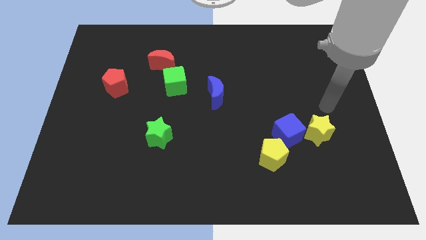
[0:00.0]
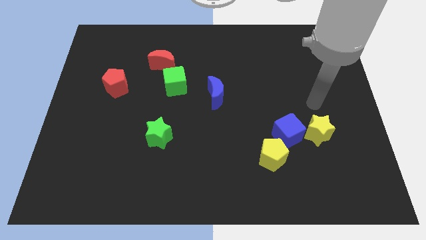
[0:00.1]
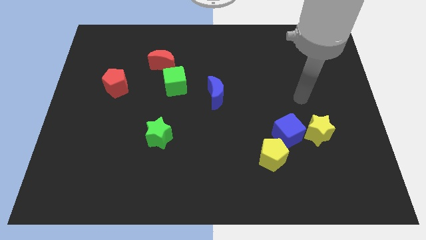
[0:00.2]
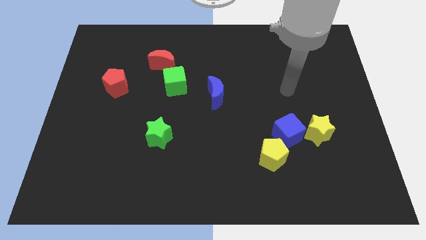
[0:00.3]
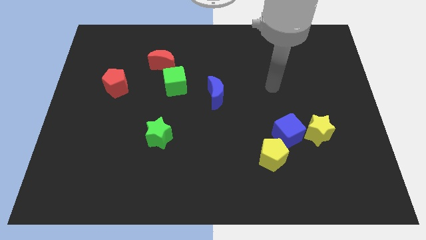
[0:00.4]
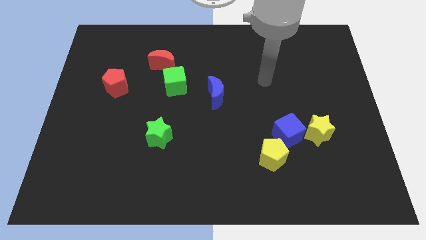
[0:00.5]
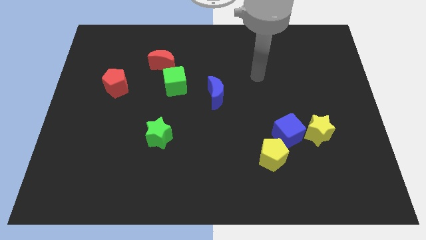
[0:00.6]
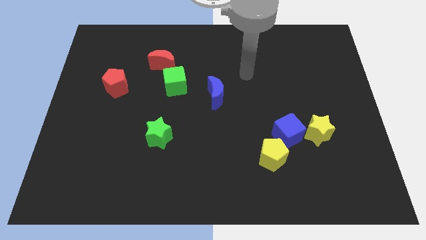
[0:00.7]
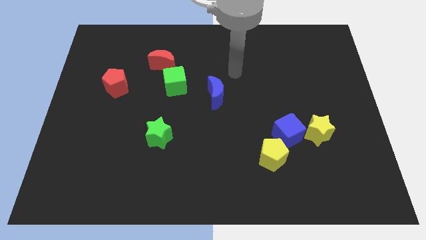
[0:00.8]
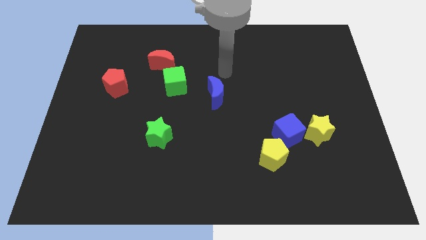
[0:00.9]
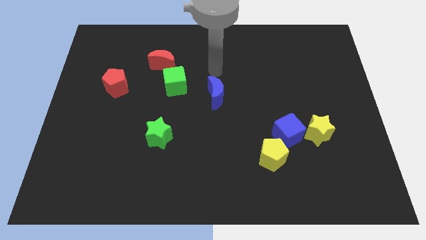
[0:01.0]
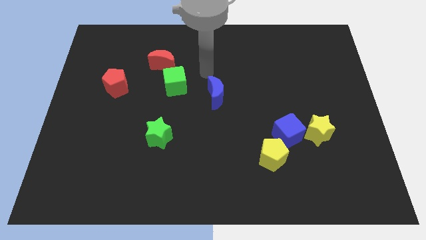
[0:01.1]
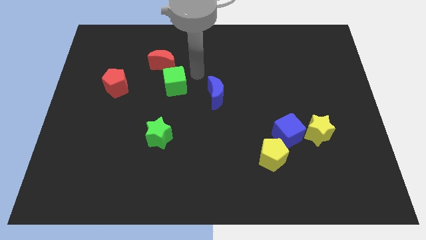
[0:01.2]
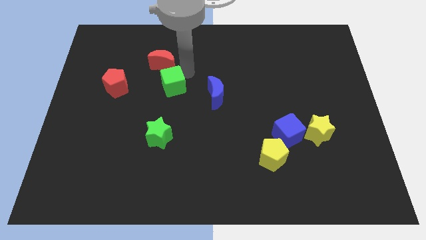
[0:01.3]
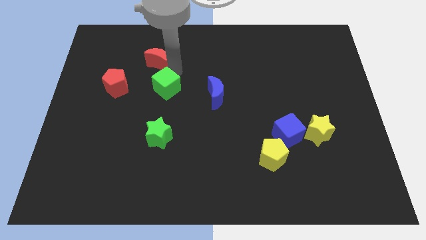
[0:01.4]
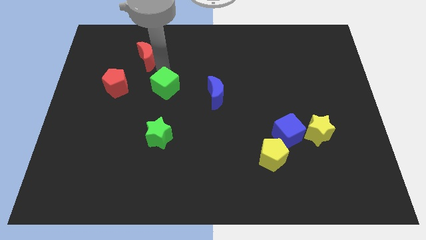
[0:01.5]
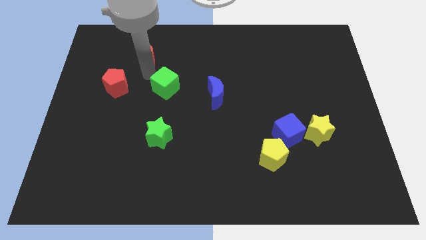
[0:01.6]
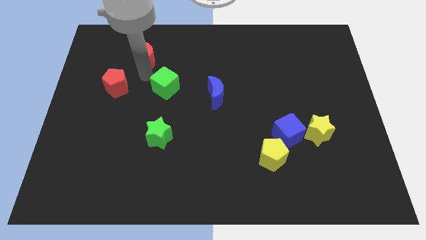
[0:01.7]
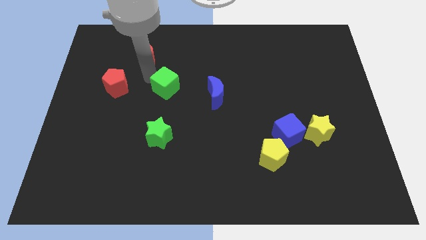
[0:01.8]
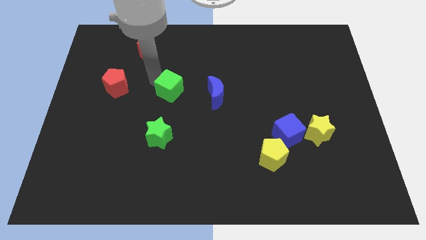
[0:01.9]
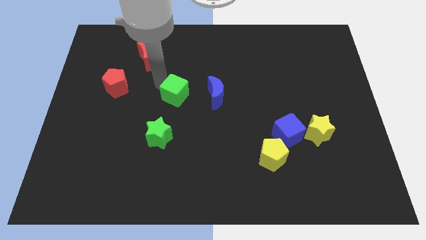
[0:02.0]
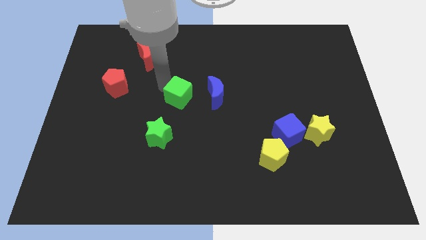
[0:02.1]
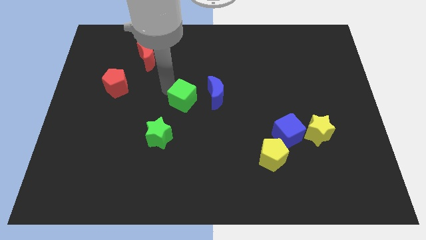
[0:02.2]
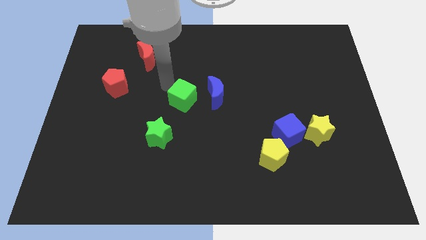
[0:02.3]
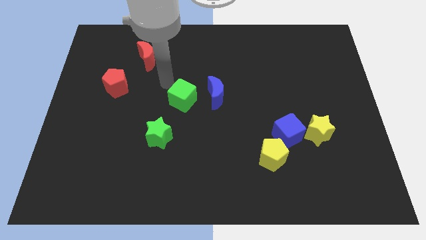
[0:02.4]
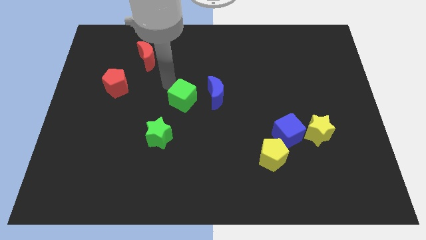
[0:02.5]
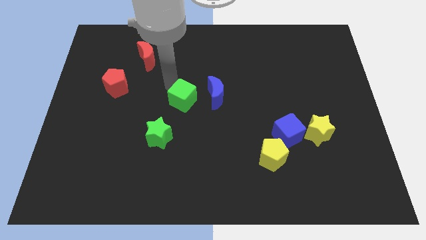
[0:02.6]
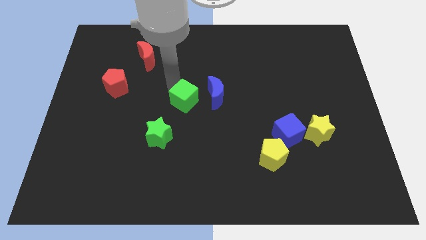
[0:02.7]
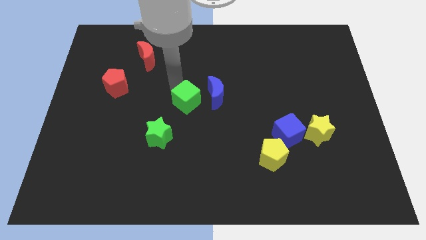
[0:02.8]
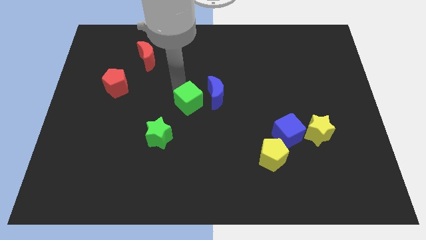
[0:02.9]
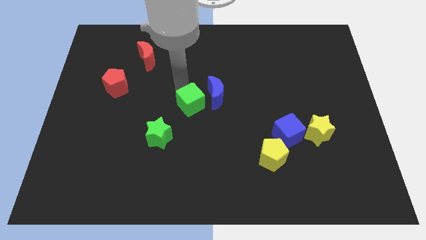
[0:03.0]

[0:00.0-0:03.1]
slightly slide the green cube downwards and to the right diagonally

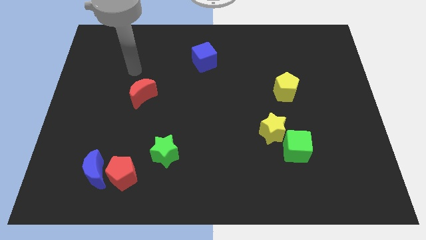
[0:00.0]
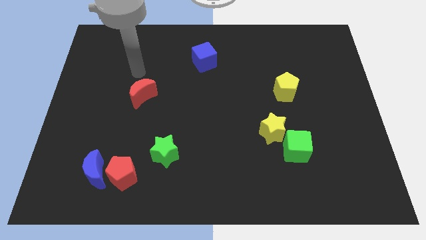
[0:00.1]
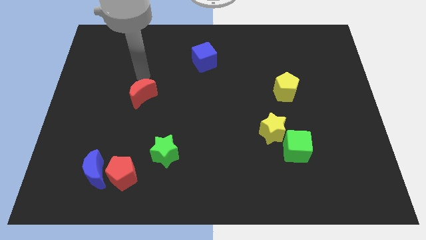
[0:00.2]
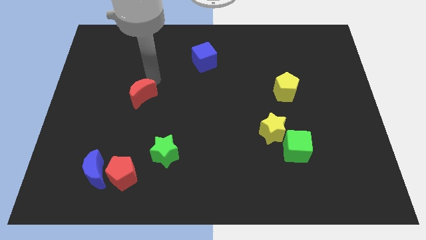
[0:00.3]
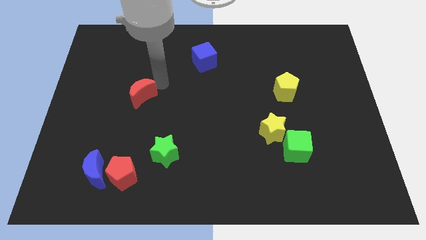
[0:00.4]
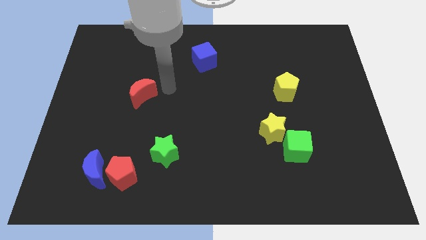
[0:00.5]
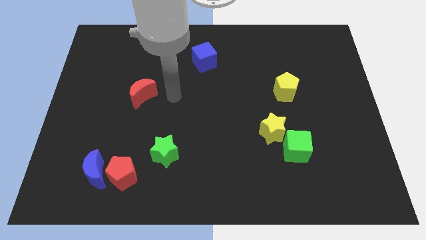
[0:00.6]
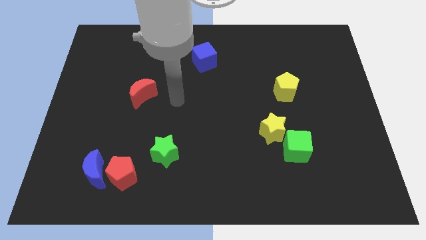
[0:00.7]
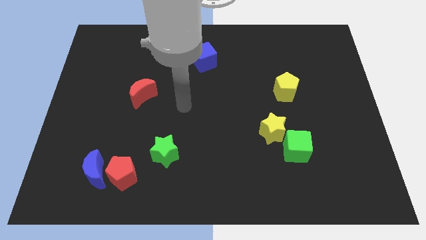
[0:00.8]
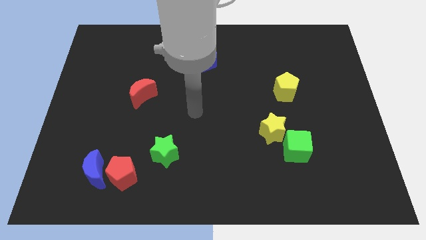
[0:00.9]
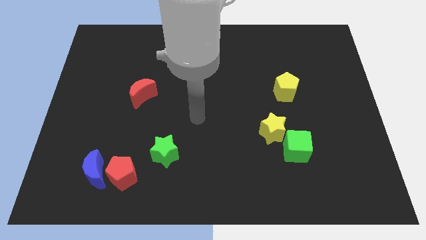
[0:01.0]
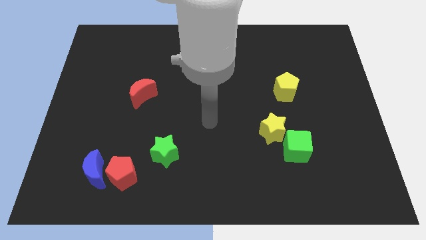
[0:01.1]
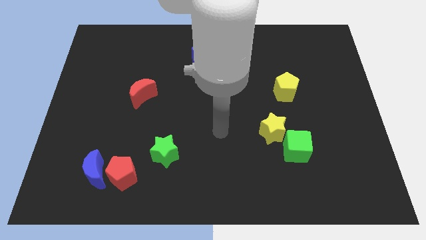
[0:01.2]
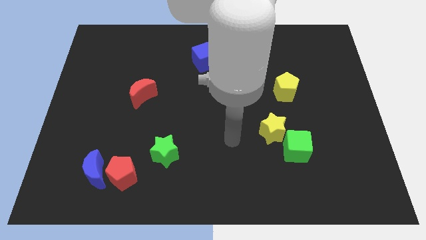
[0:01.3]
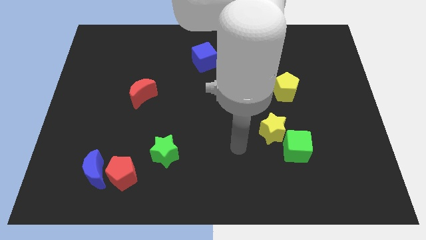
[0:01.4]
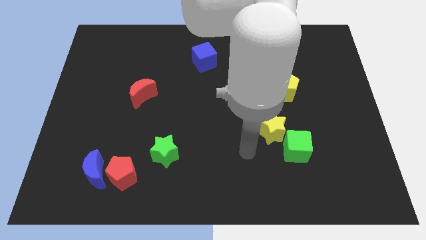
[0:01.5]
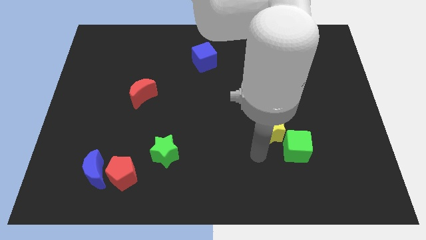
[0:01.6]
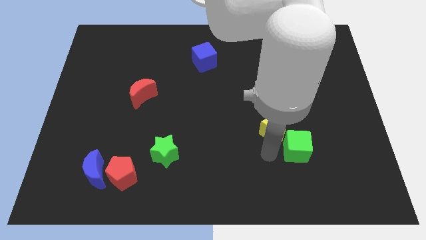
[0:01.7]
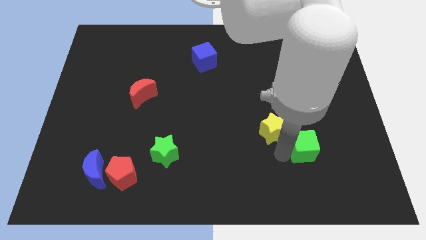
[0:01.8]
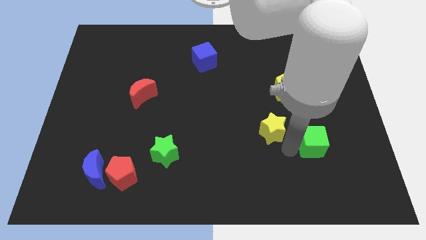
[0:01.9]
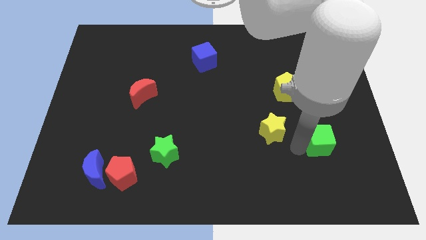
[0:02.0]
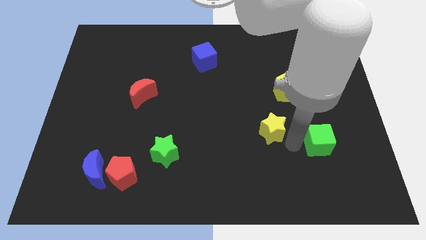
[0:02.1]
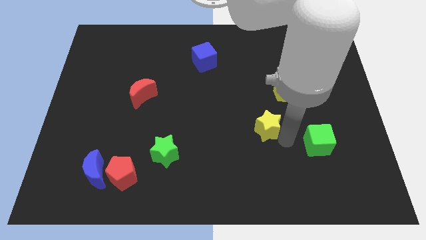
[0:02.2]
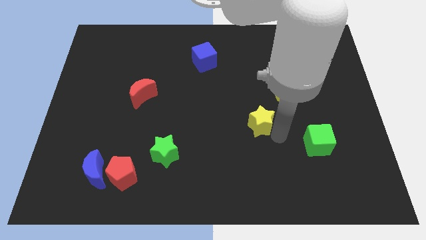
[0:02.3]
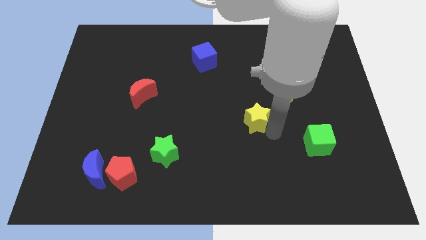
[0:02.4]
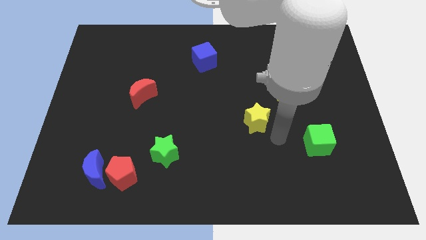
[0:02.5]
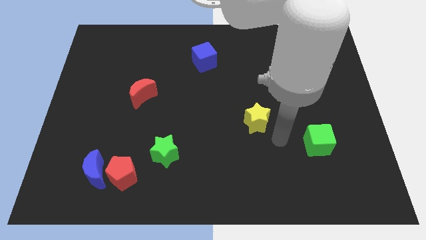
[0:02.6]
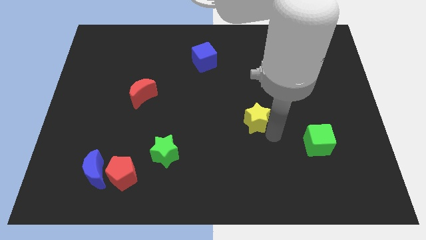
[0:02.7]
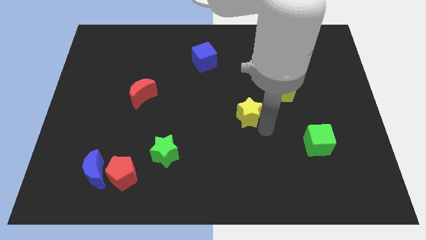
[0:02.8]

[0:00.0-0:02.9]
slightly slide the yellow star diagonally up and to the left

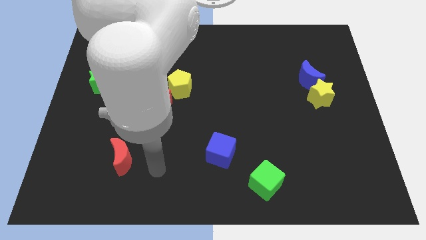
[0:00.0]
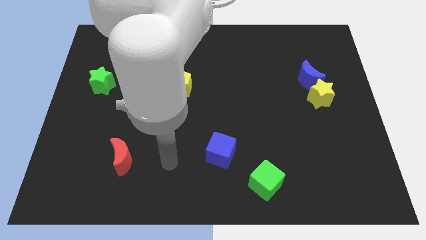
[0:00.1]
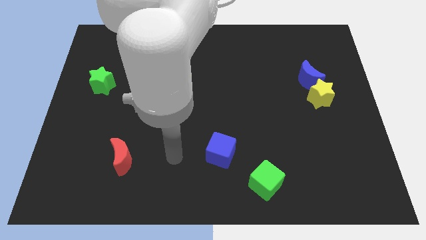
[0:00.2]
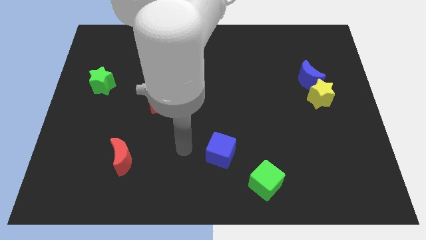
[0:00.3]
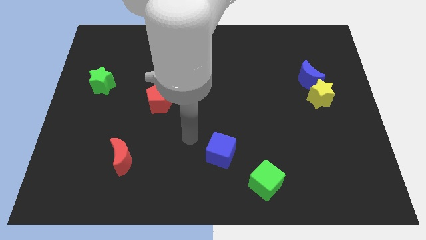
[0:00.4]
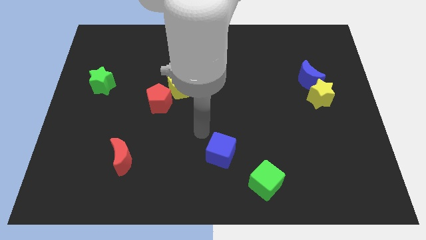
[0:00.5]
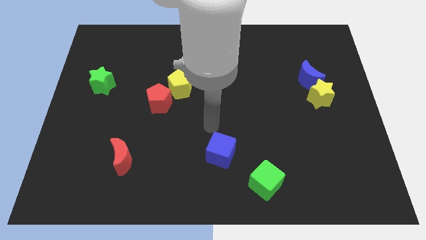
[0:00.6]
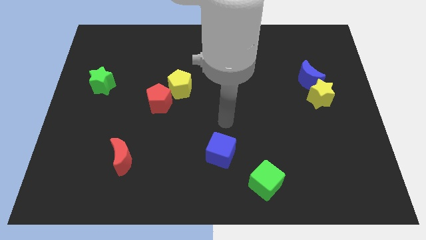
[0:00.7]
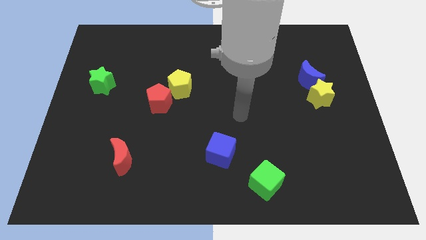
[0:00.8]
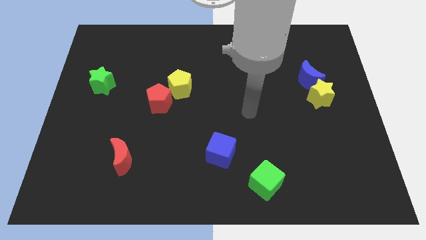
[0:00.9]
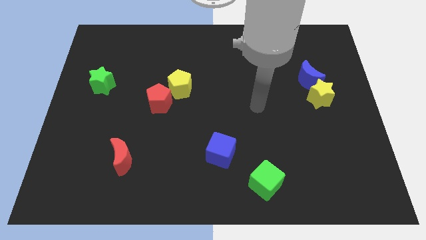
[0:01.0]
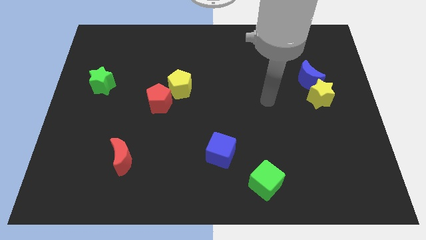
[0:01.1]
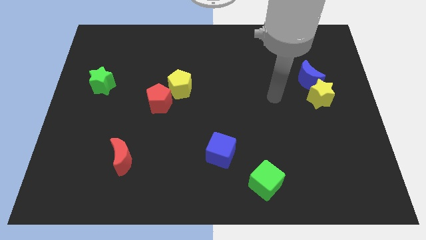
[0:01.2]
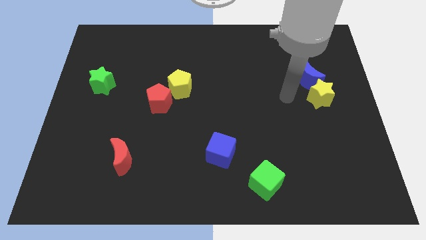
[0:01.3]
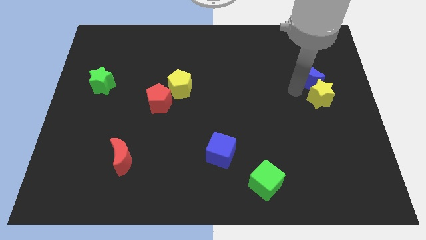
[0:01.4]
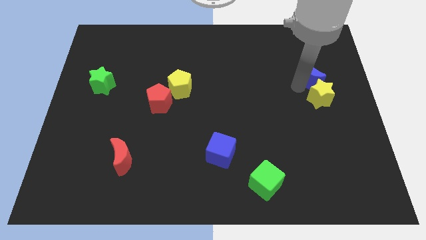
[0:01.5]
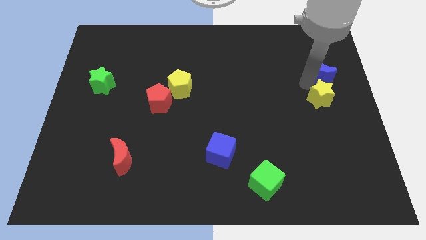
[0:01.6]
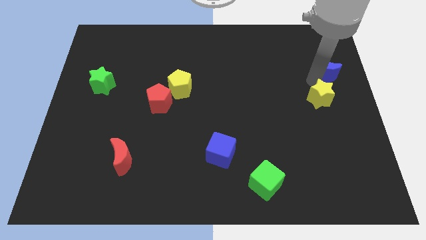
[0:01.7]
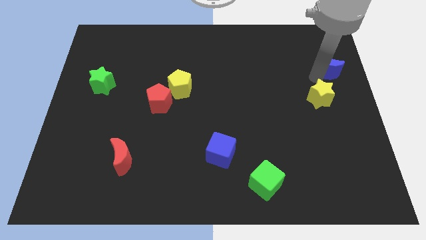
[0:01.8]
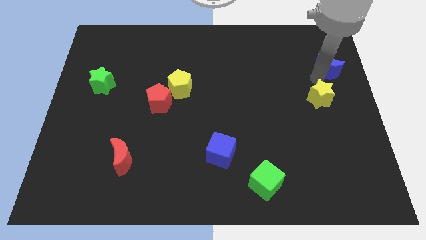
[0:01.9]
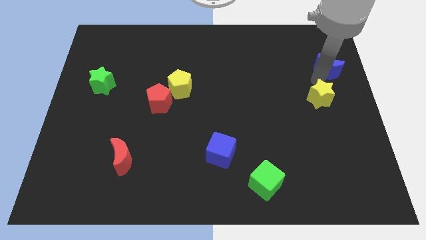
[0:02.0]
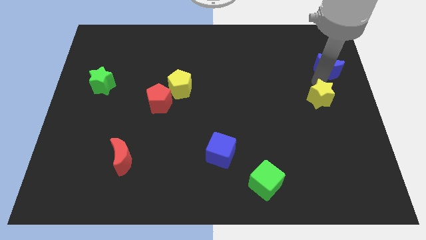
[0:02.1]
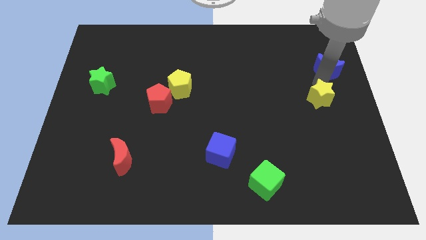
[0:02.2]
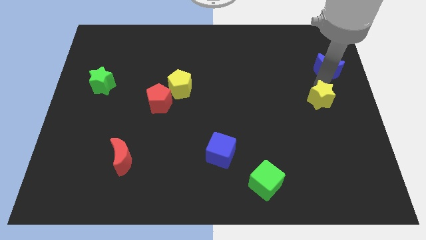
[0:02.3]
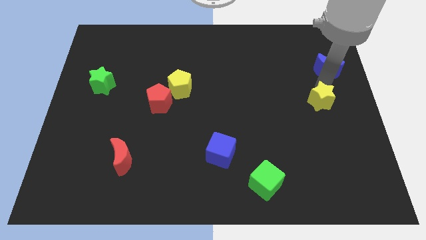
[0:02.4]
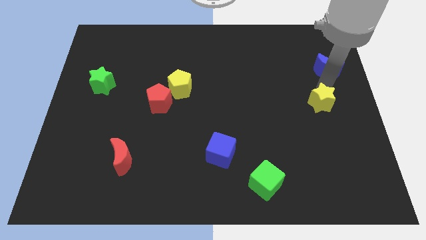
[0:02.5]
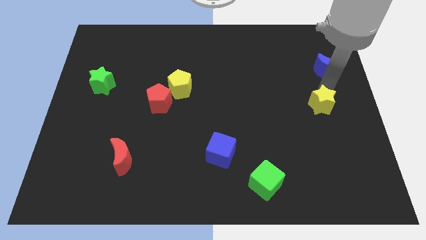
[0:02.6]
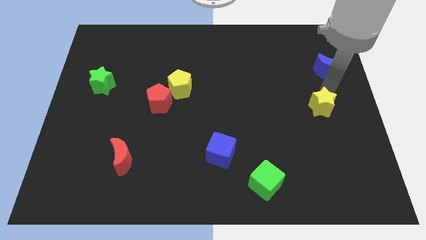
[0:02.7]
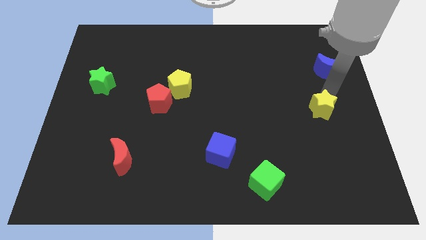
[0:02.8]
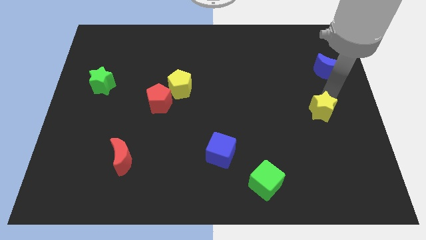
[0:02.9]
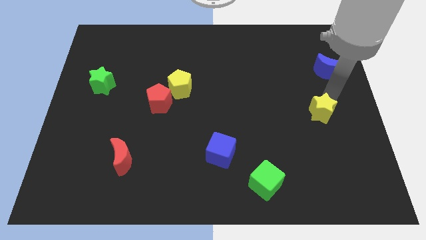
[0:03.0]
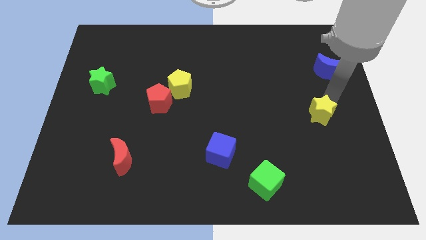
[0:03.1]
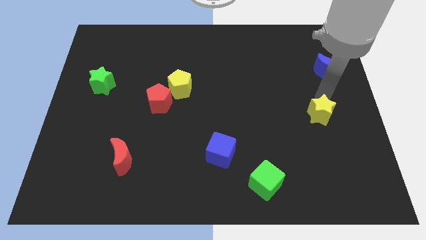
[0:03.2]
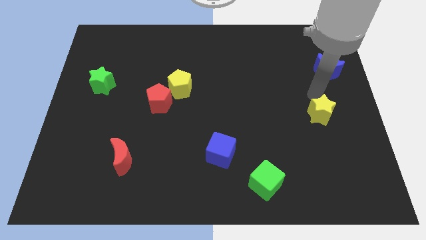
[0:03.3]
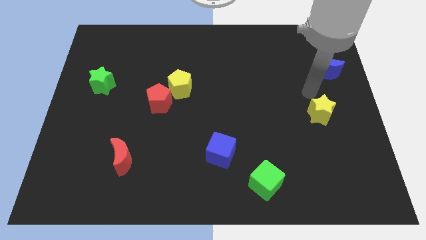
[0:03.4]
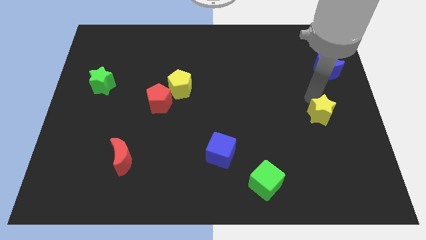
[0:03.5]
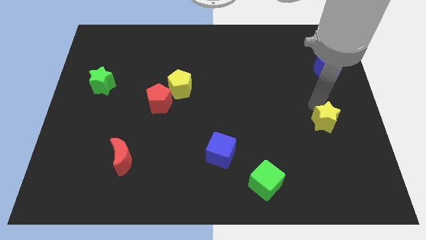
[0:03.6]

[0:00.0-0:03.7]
slightly move the yellow star downwards
